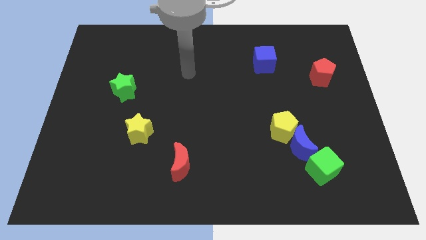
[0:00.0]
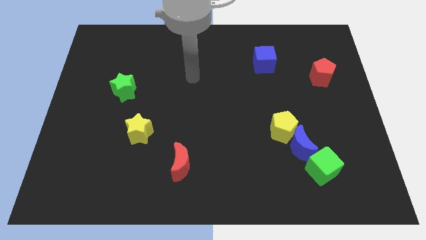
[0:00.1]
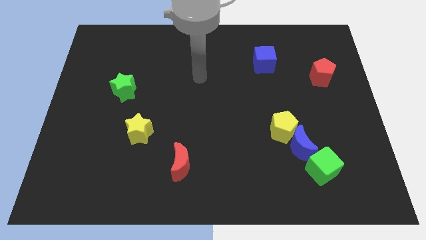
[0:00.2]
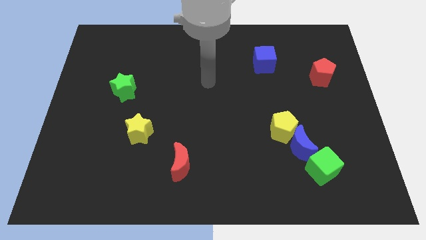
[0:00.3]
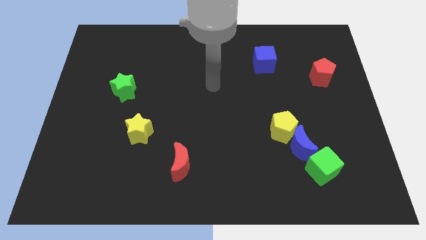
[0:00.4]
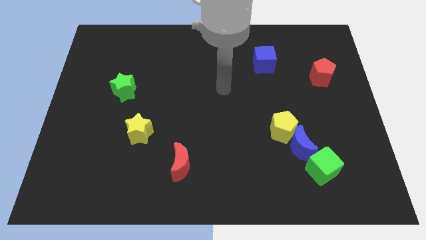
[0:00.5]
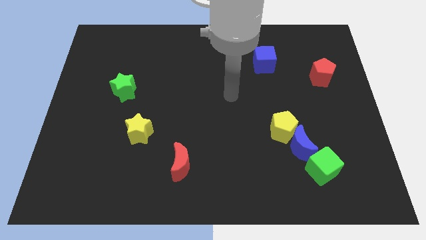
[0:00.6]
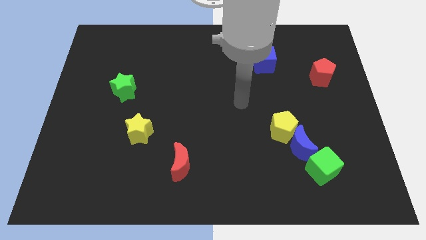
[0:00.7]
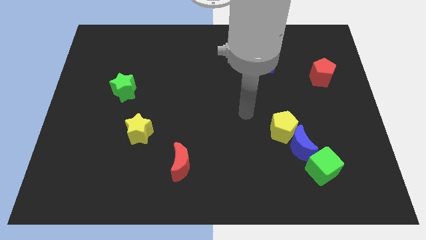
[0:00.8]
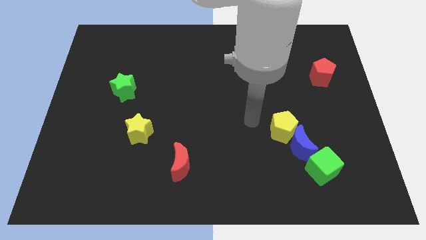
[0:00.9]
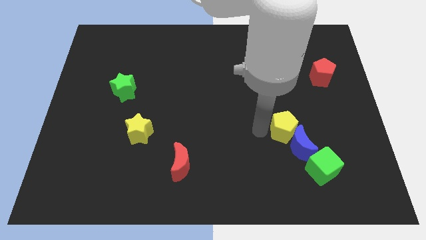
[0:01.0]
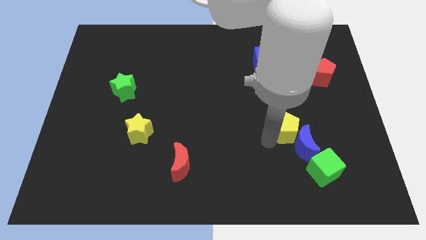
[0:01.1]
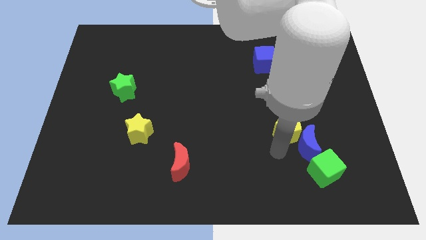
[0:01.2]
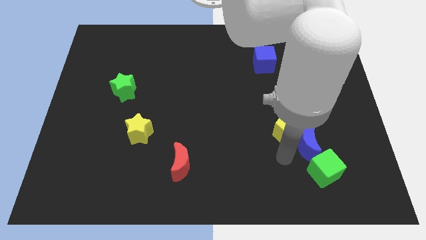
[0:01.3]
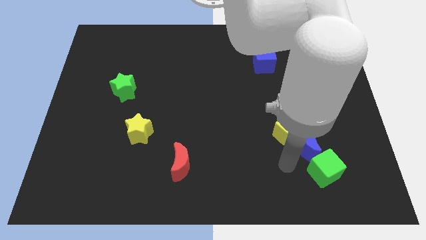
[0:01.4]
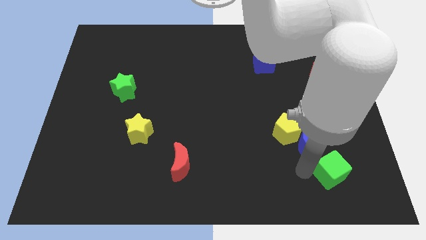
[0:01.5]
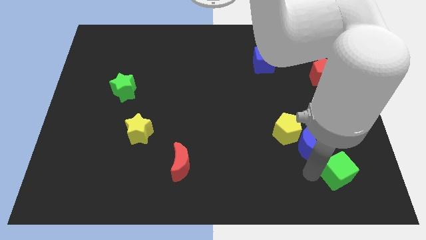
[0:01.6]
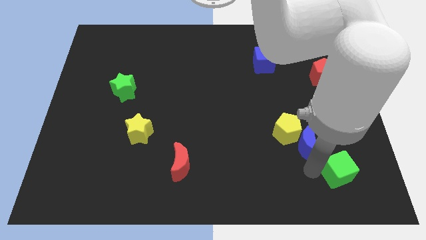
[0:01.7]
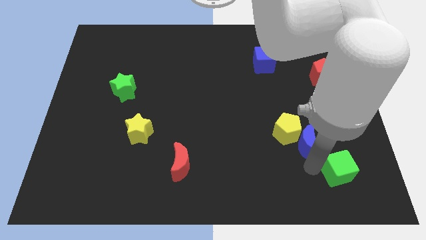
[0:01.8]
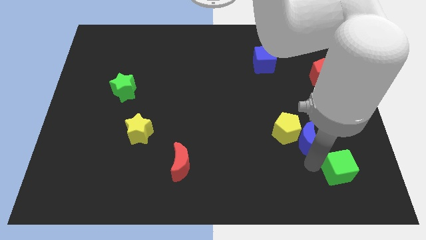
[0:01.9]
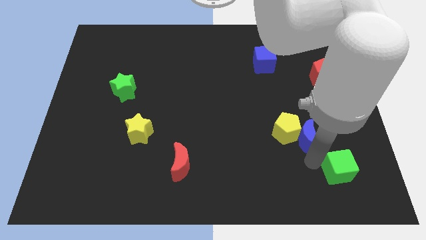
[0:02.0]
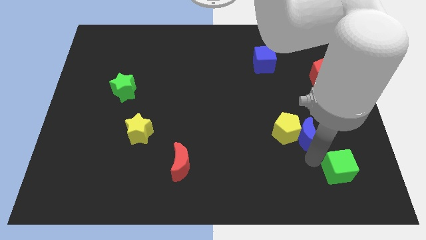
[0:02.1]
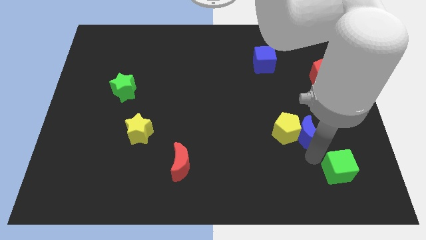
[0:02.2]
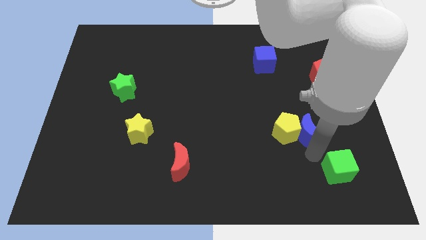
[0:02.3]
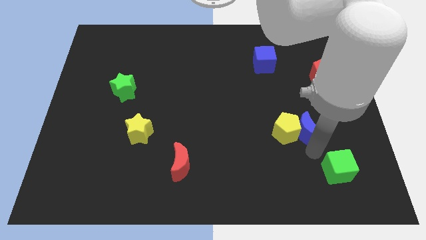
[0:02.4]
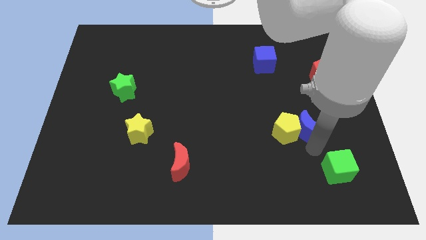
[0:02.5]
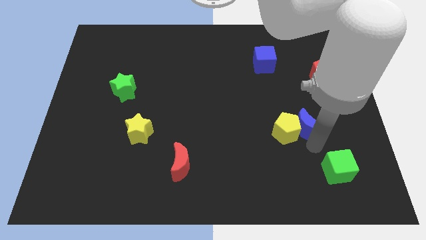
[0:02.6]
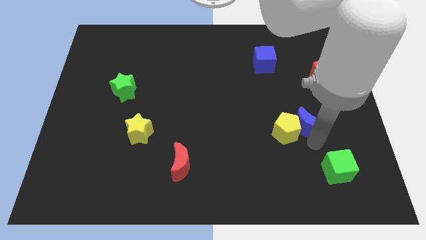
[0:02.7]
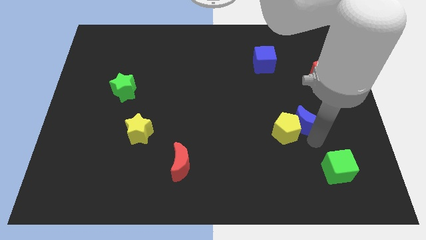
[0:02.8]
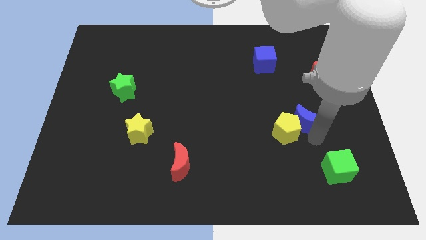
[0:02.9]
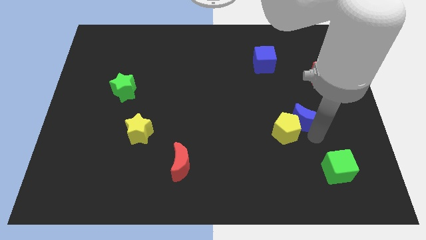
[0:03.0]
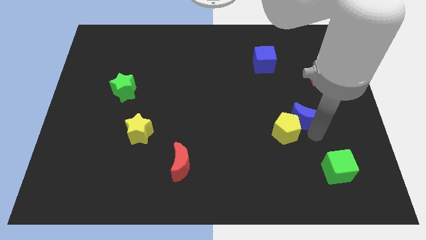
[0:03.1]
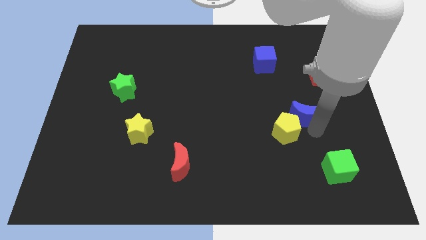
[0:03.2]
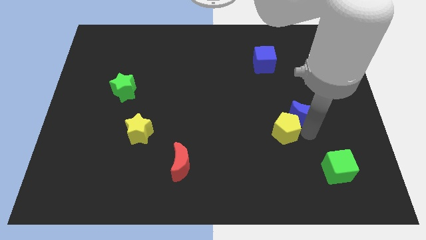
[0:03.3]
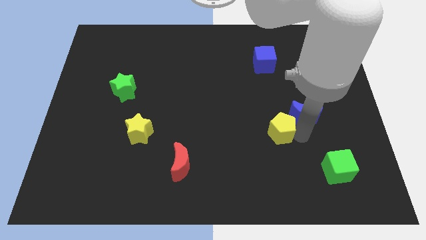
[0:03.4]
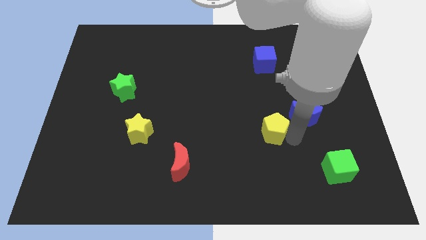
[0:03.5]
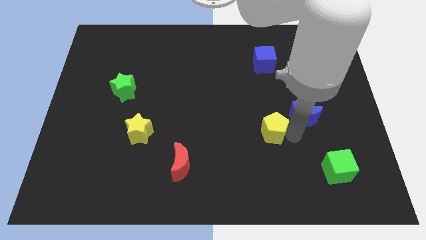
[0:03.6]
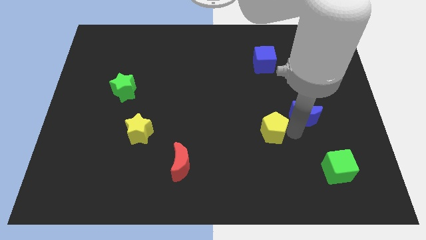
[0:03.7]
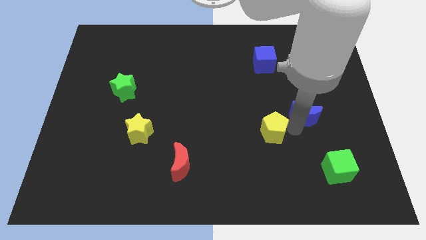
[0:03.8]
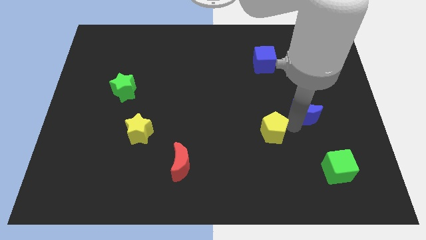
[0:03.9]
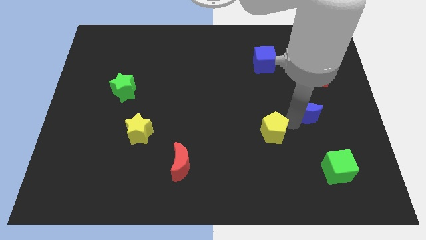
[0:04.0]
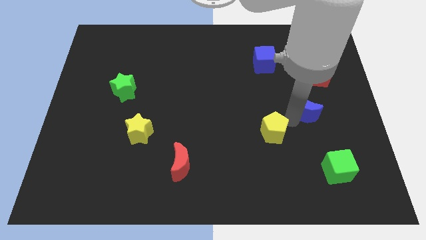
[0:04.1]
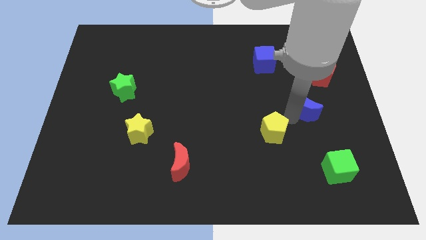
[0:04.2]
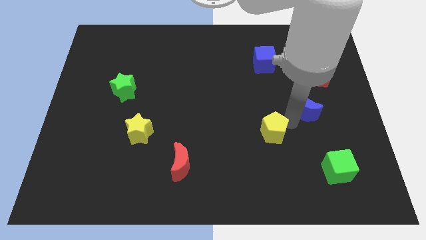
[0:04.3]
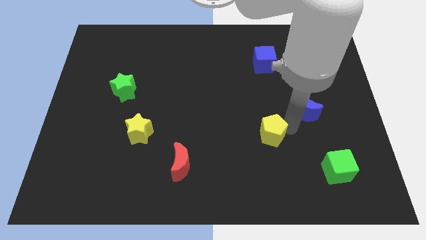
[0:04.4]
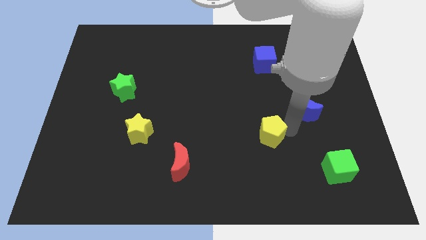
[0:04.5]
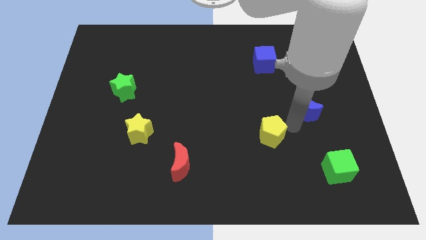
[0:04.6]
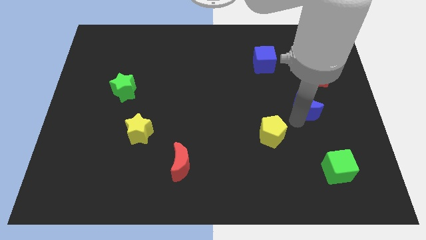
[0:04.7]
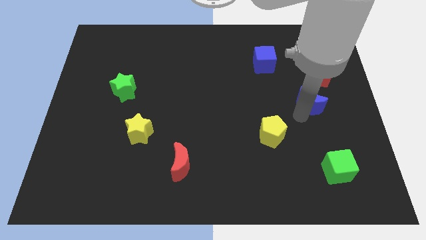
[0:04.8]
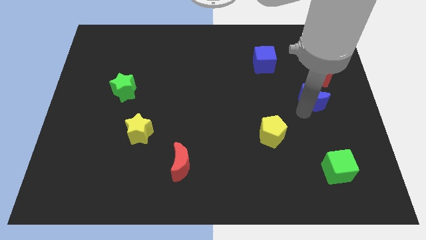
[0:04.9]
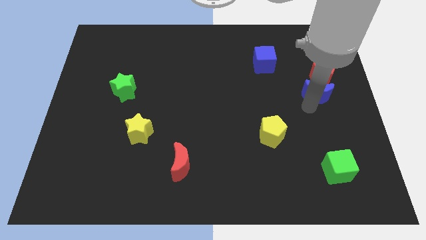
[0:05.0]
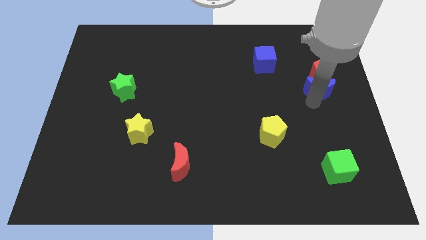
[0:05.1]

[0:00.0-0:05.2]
put the blue moon close to the red pentagon

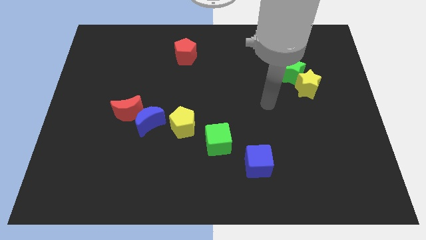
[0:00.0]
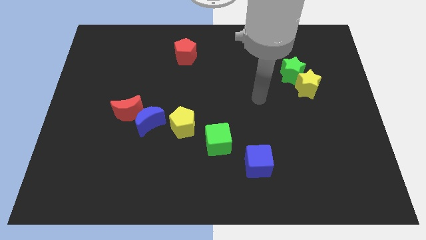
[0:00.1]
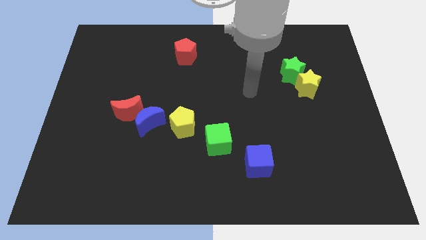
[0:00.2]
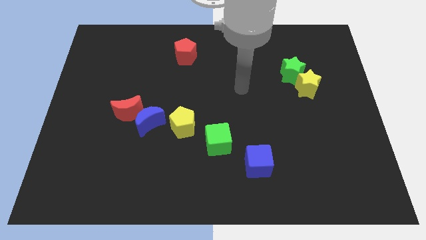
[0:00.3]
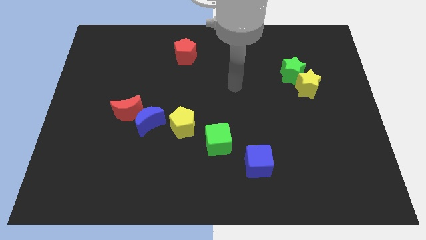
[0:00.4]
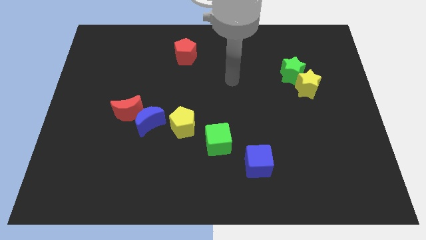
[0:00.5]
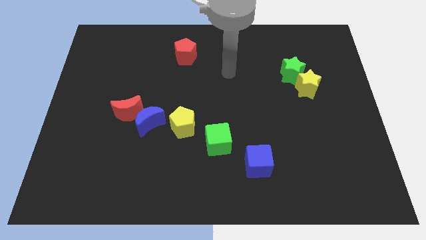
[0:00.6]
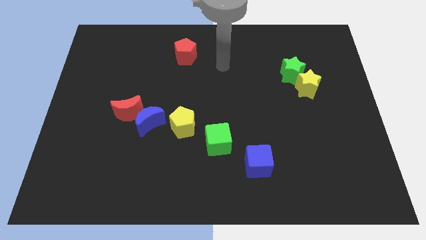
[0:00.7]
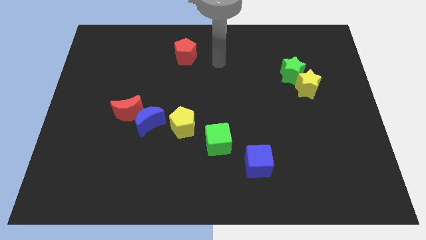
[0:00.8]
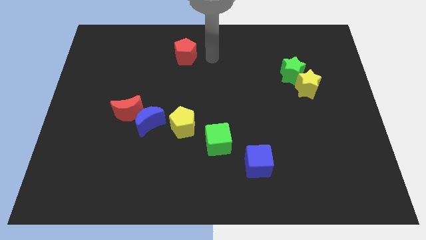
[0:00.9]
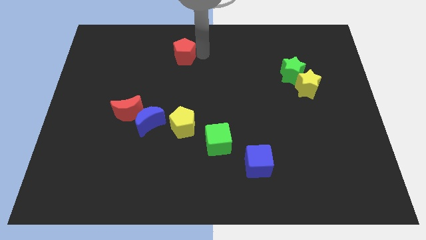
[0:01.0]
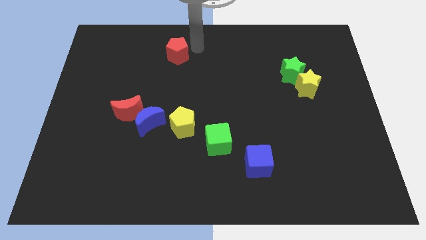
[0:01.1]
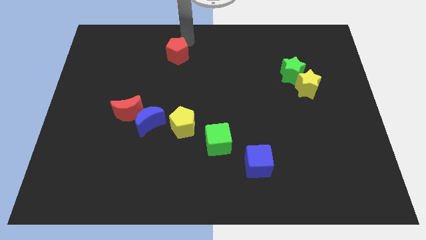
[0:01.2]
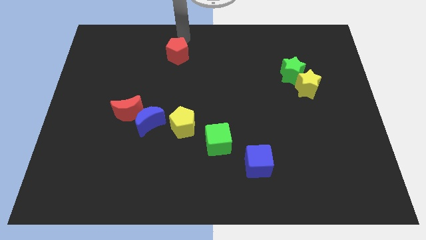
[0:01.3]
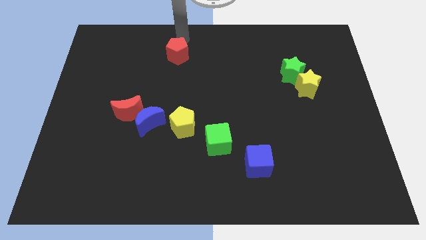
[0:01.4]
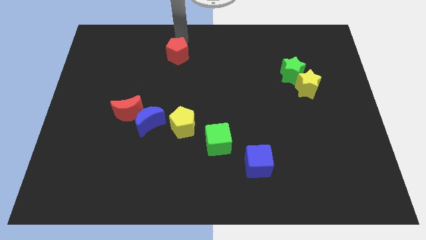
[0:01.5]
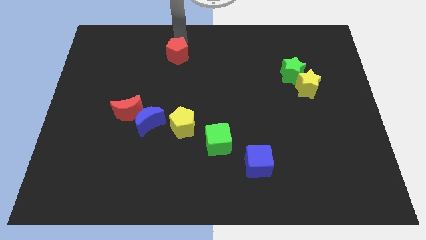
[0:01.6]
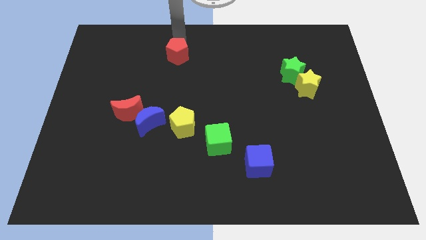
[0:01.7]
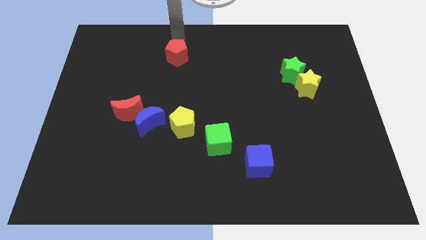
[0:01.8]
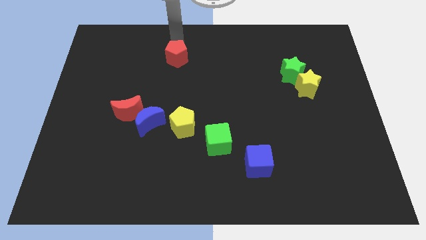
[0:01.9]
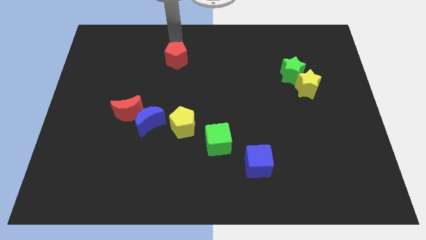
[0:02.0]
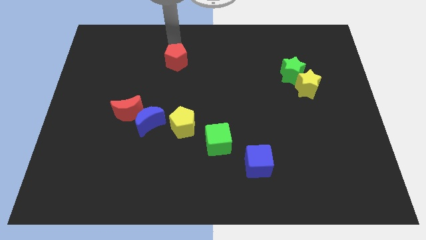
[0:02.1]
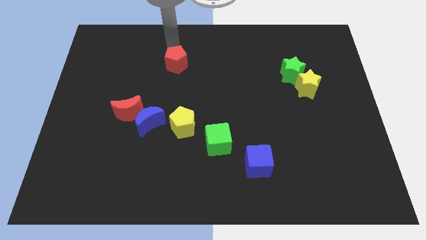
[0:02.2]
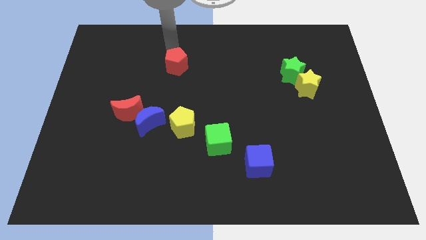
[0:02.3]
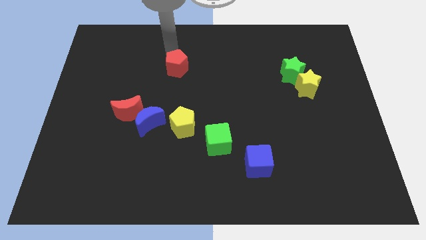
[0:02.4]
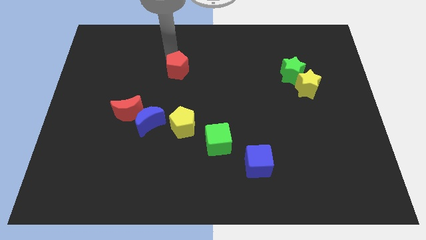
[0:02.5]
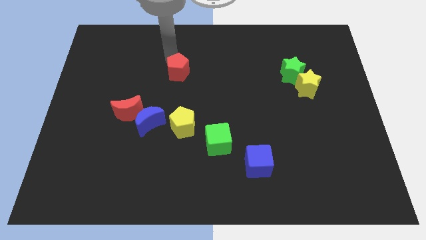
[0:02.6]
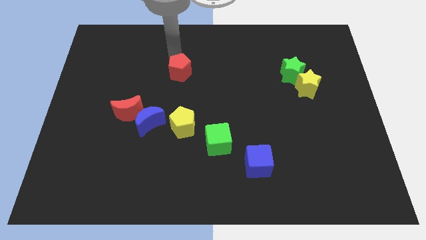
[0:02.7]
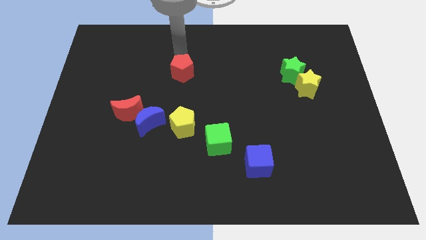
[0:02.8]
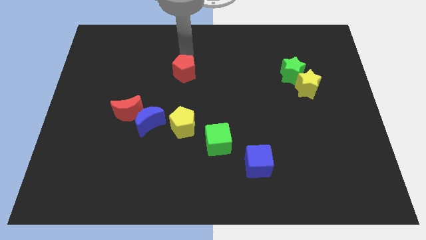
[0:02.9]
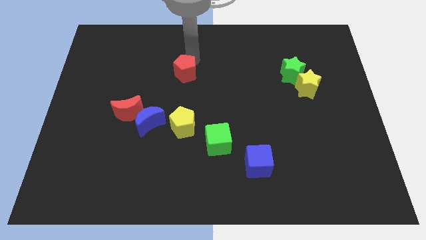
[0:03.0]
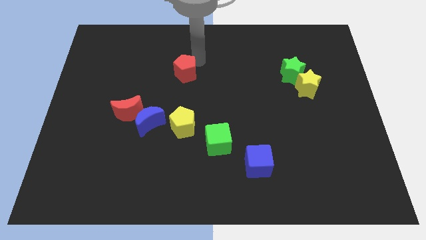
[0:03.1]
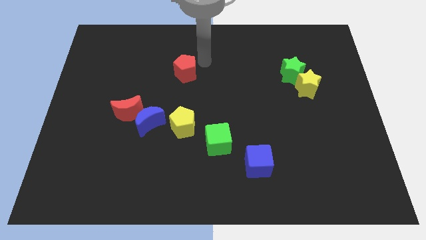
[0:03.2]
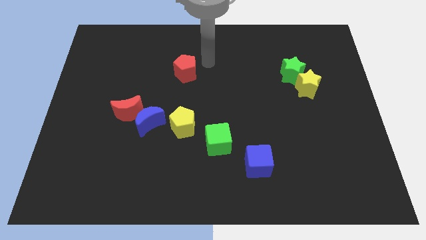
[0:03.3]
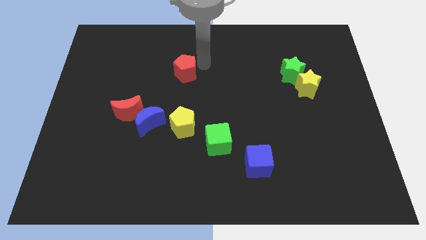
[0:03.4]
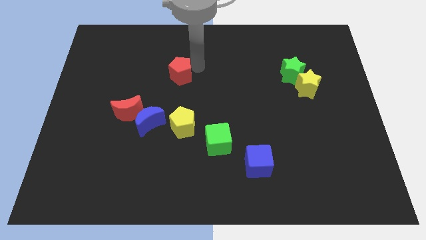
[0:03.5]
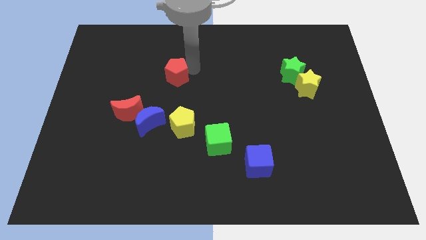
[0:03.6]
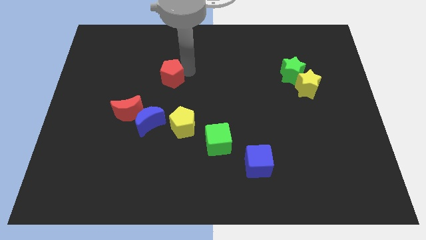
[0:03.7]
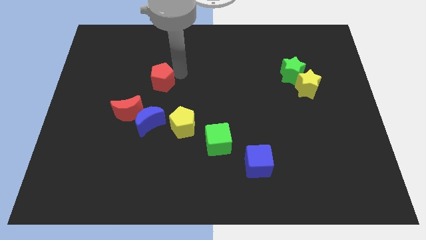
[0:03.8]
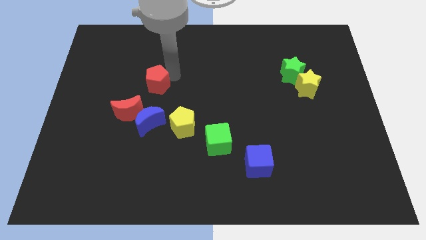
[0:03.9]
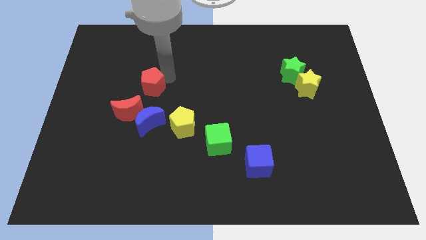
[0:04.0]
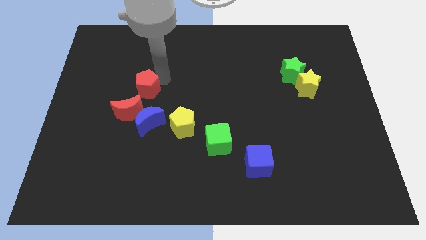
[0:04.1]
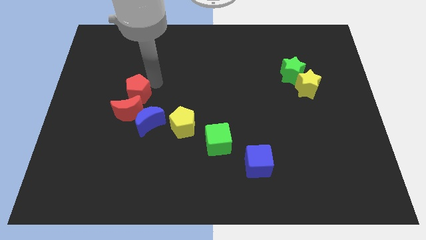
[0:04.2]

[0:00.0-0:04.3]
put the red pentagon close to the red moon
